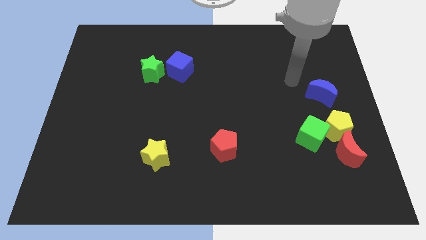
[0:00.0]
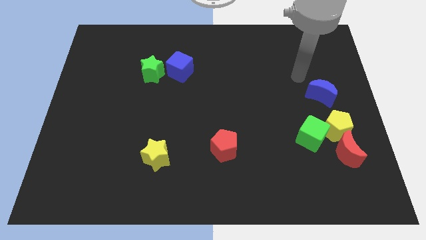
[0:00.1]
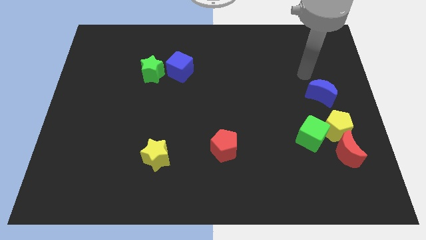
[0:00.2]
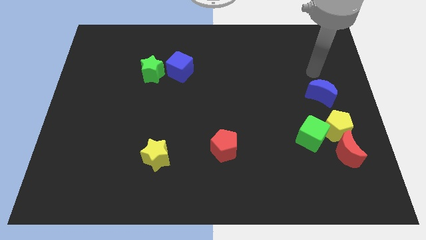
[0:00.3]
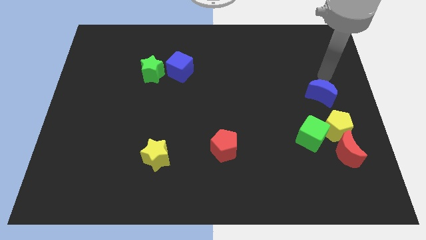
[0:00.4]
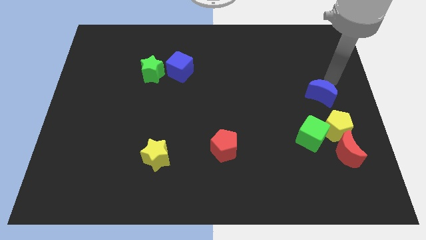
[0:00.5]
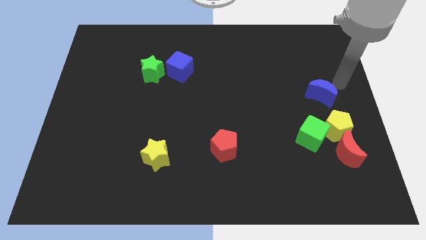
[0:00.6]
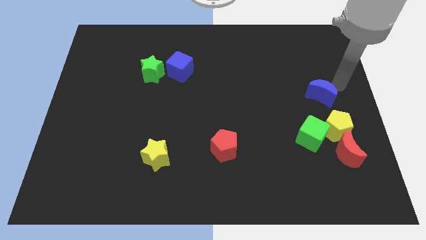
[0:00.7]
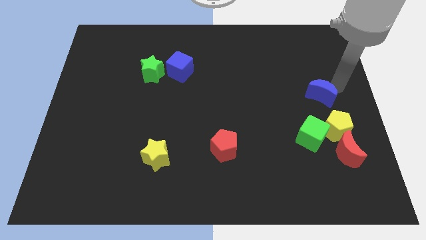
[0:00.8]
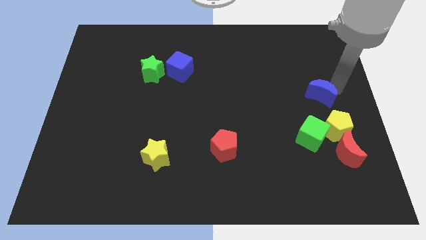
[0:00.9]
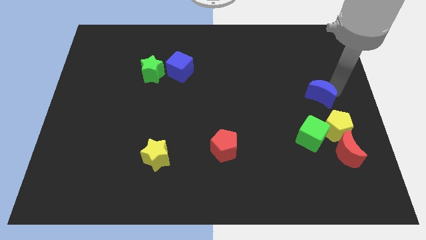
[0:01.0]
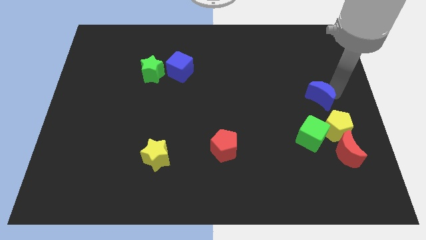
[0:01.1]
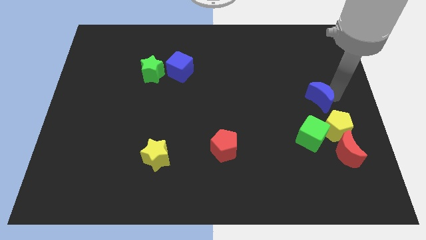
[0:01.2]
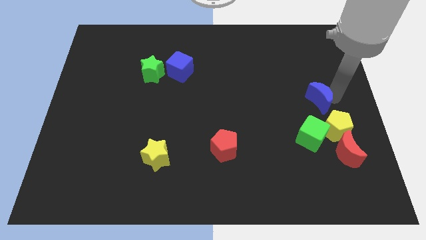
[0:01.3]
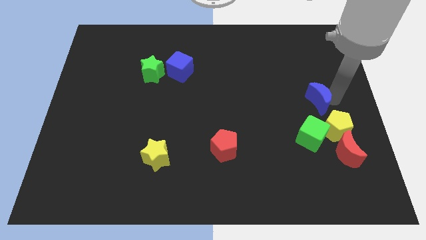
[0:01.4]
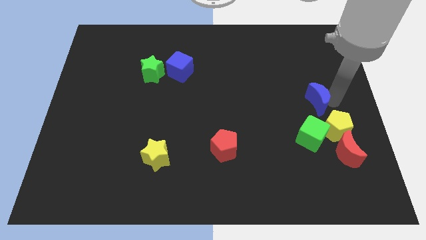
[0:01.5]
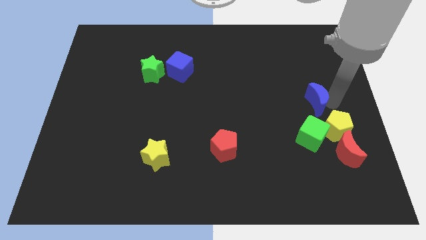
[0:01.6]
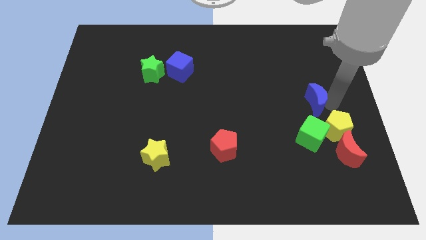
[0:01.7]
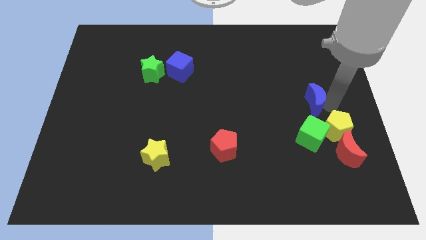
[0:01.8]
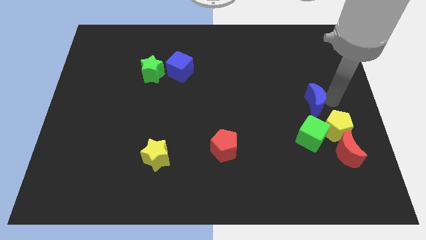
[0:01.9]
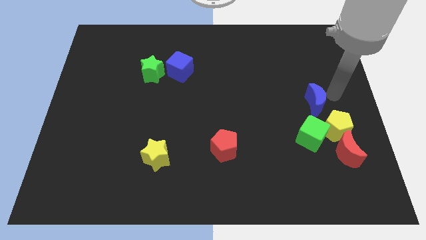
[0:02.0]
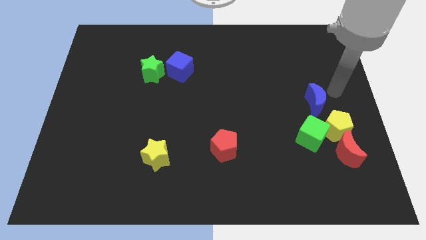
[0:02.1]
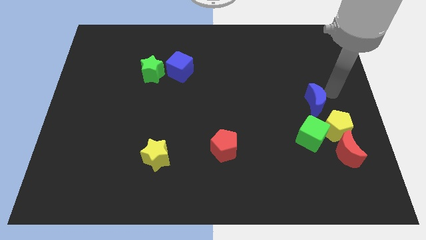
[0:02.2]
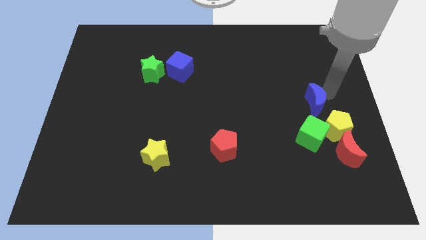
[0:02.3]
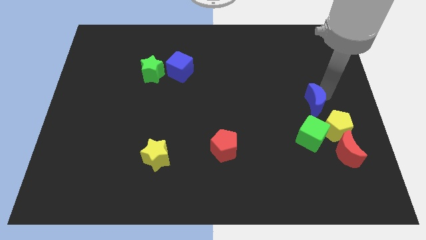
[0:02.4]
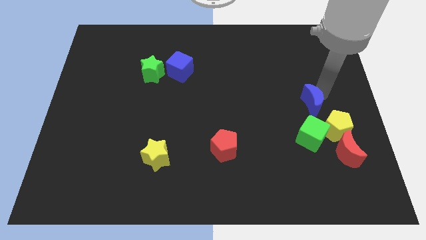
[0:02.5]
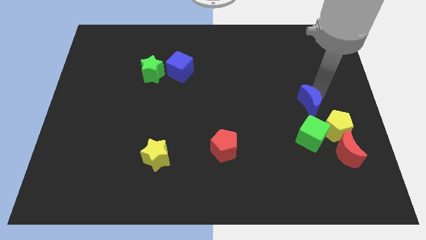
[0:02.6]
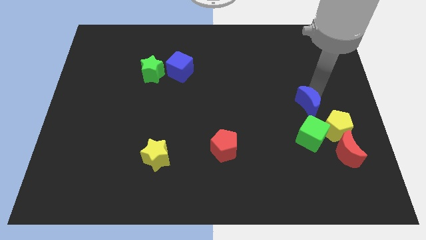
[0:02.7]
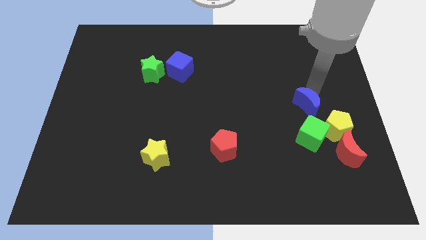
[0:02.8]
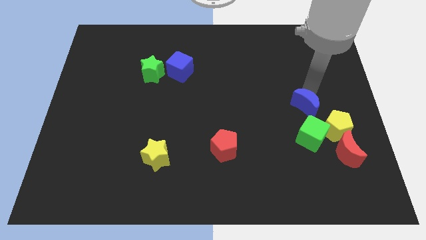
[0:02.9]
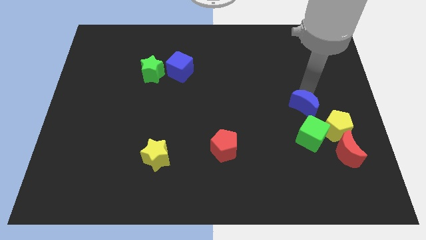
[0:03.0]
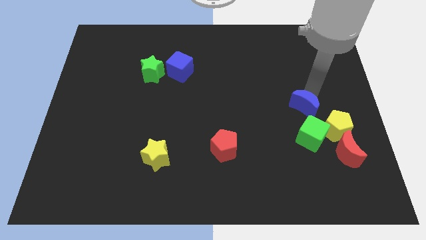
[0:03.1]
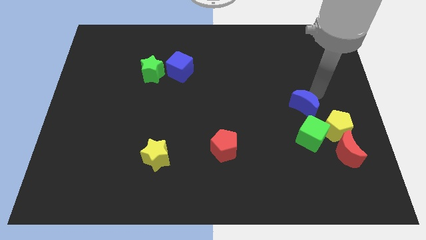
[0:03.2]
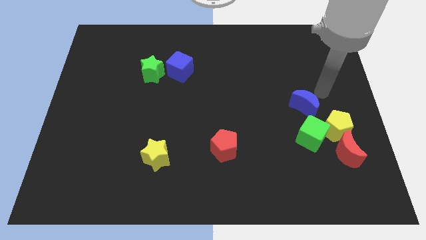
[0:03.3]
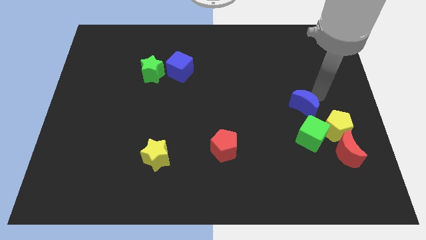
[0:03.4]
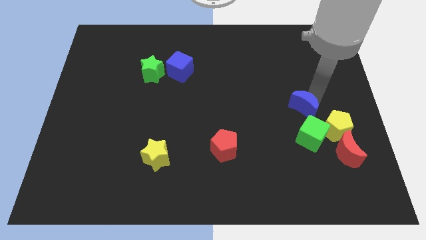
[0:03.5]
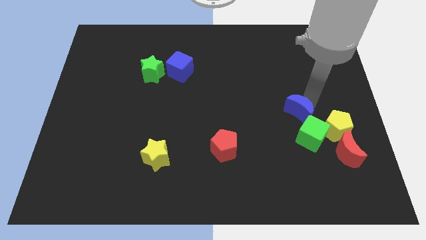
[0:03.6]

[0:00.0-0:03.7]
slightly move the blue moon diagonally downwards and to the left

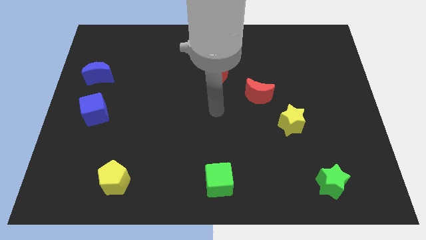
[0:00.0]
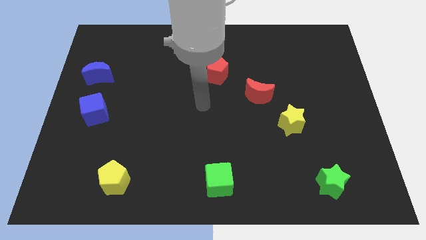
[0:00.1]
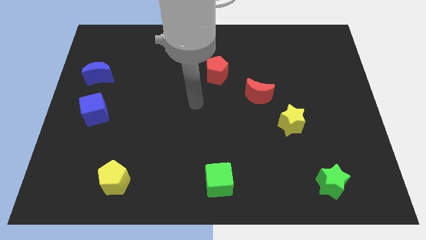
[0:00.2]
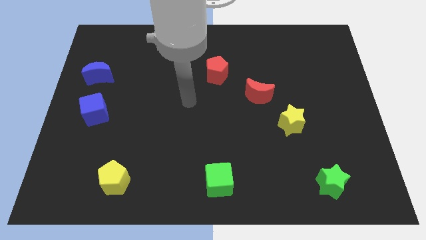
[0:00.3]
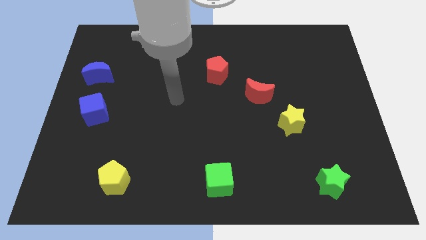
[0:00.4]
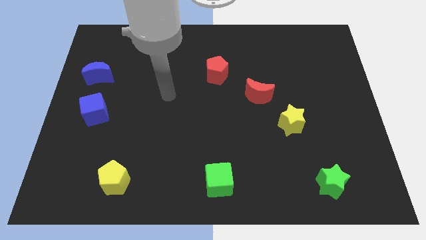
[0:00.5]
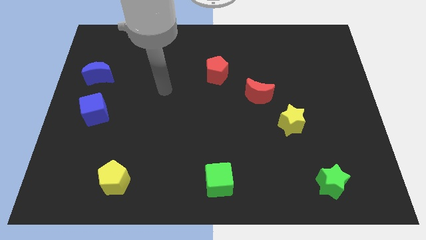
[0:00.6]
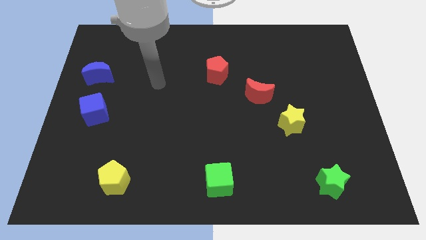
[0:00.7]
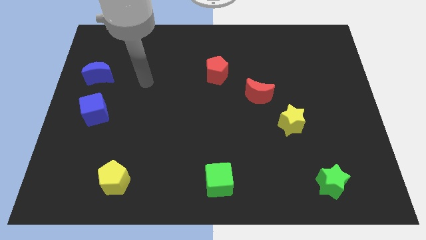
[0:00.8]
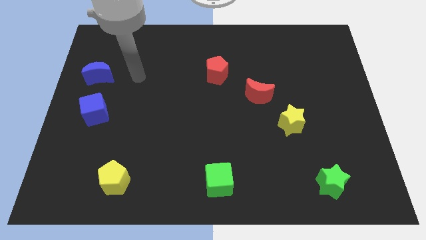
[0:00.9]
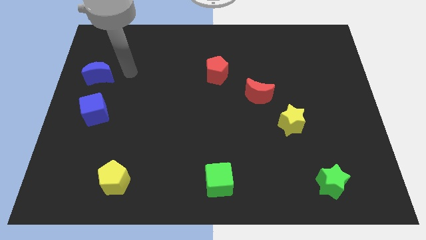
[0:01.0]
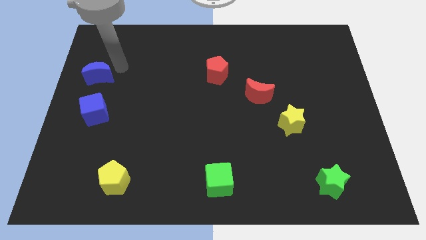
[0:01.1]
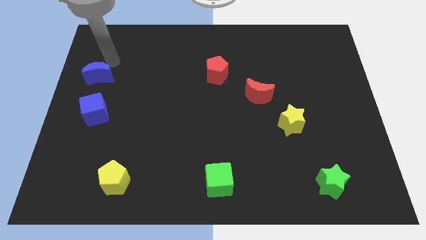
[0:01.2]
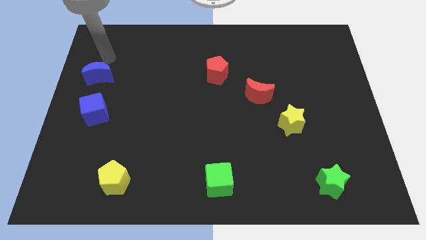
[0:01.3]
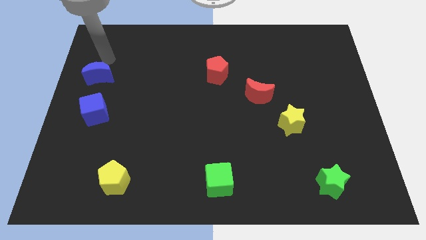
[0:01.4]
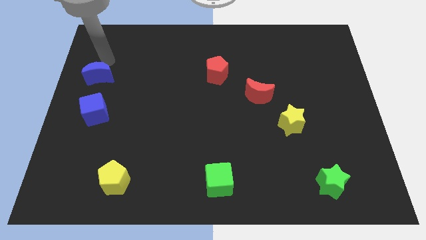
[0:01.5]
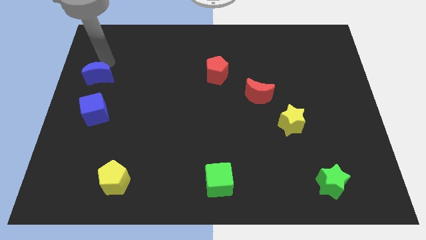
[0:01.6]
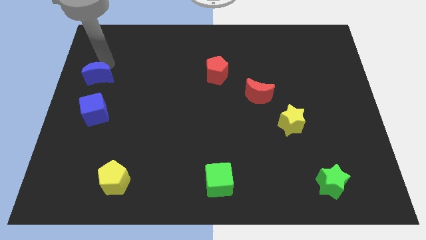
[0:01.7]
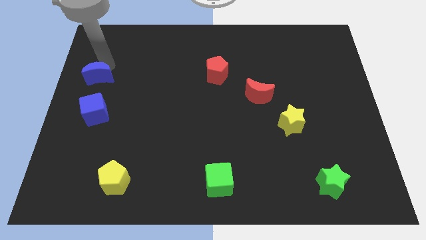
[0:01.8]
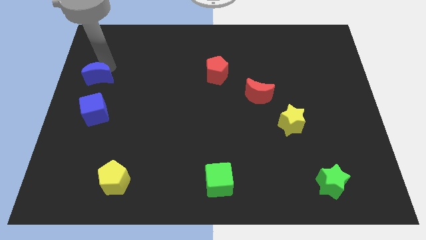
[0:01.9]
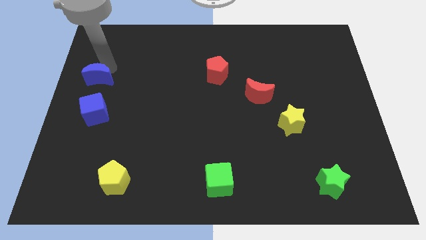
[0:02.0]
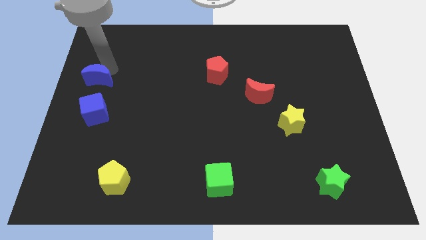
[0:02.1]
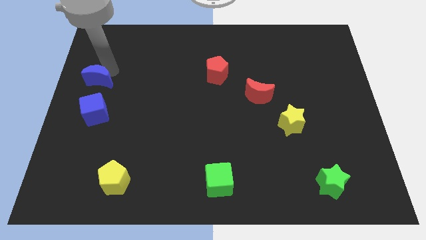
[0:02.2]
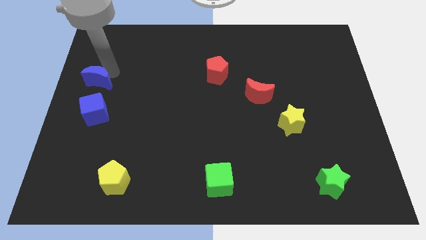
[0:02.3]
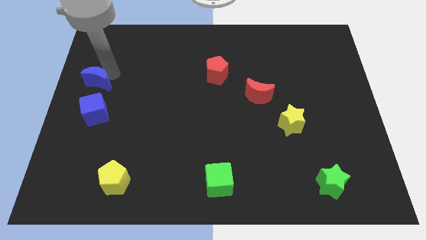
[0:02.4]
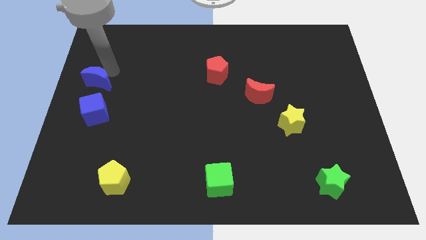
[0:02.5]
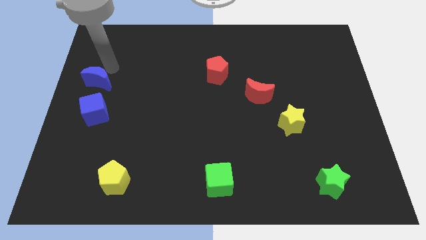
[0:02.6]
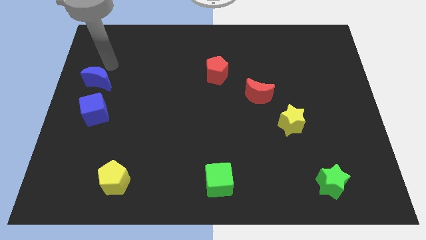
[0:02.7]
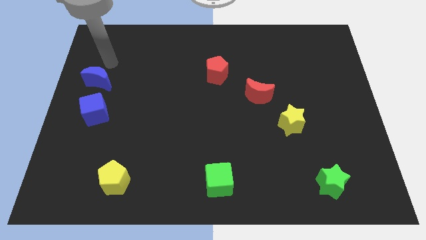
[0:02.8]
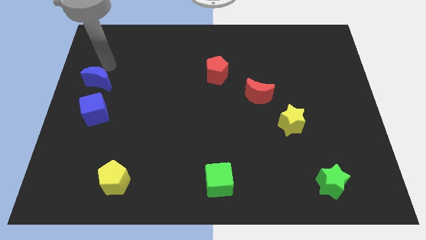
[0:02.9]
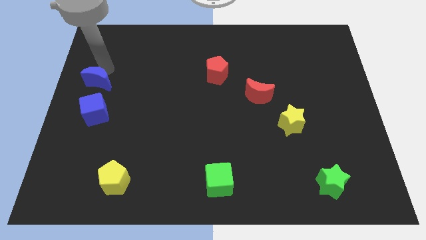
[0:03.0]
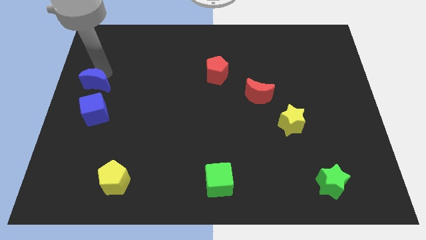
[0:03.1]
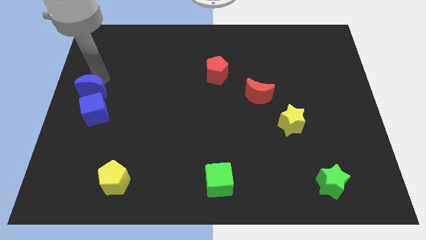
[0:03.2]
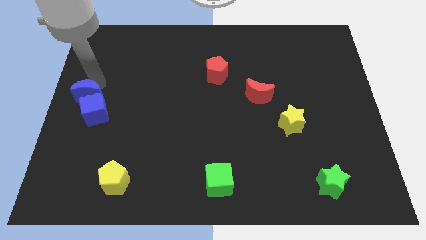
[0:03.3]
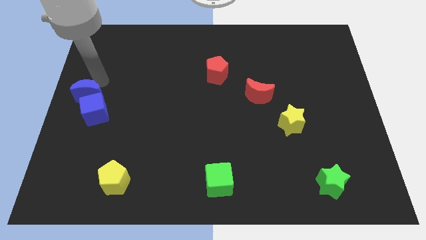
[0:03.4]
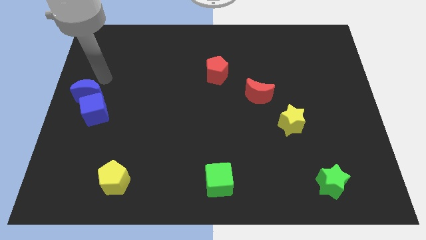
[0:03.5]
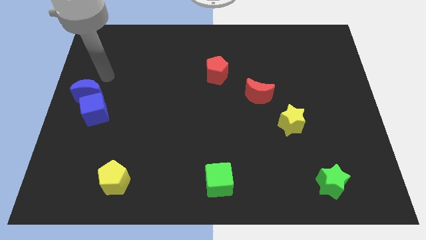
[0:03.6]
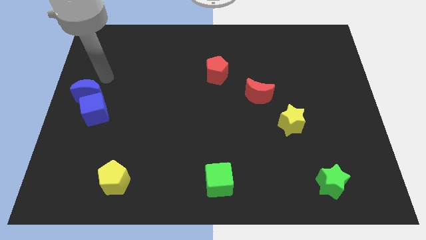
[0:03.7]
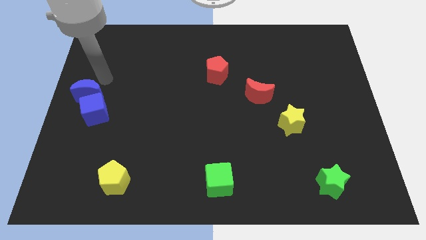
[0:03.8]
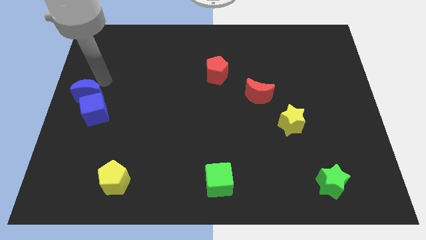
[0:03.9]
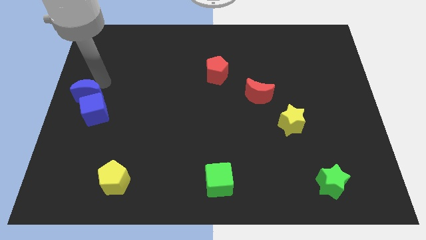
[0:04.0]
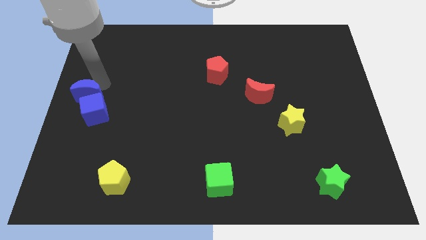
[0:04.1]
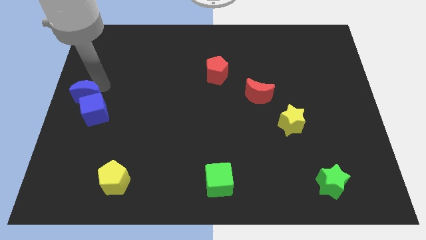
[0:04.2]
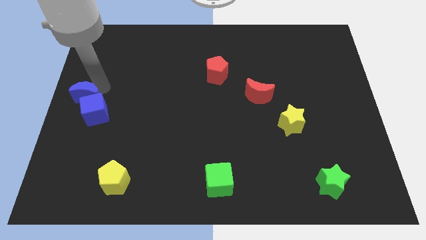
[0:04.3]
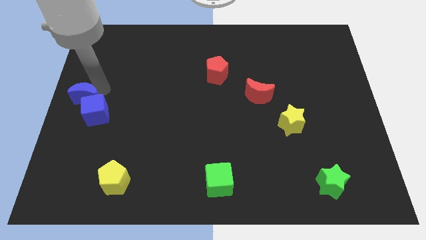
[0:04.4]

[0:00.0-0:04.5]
push the blue moon downwards a bit
